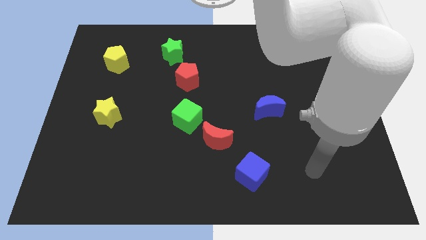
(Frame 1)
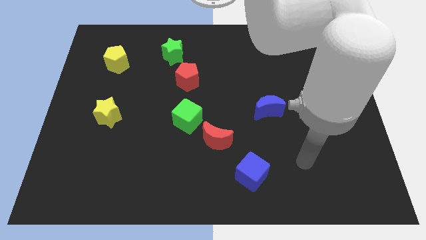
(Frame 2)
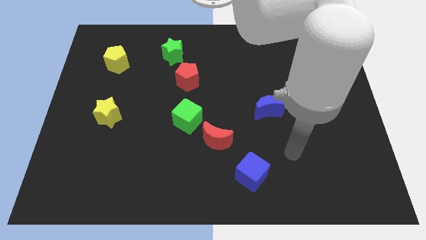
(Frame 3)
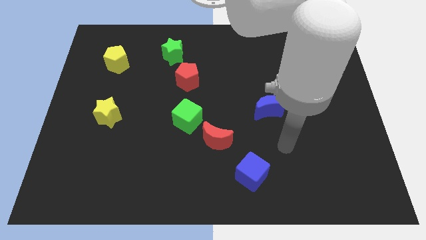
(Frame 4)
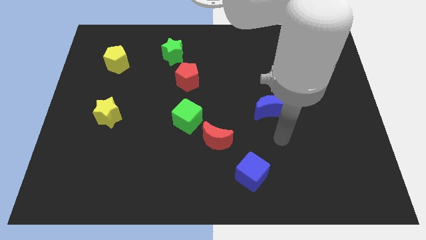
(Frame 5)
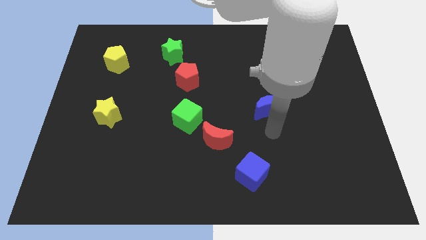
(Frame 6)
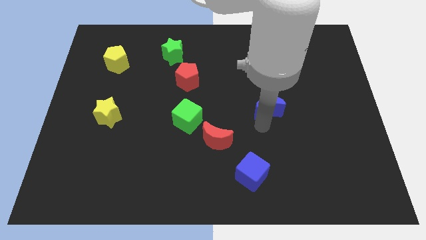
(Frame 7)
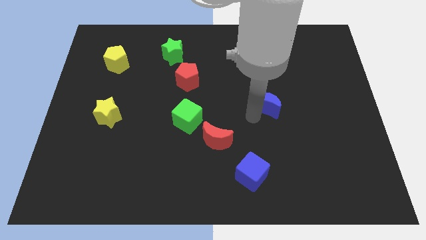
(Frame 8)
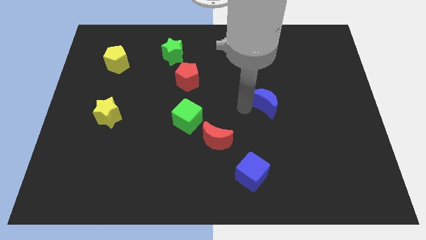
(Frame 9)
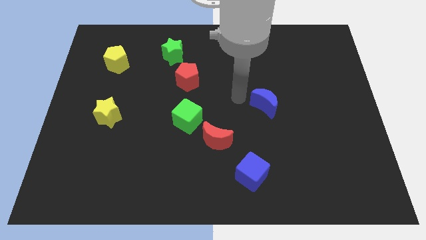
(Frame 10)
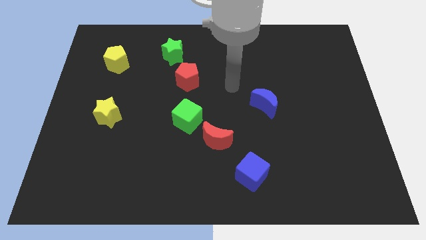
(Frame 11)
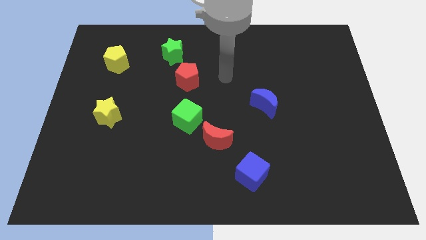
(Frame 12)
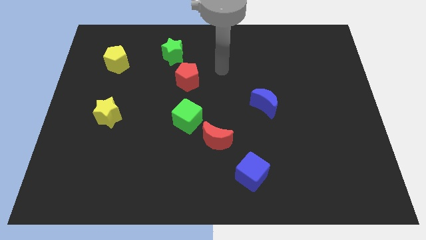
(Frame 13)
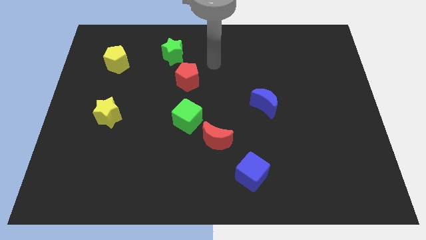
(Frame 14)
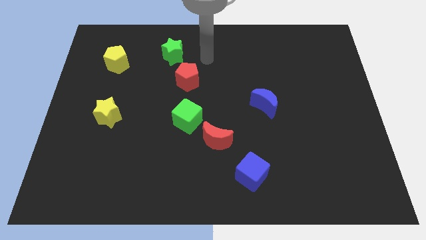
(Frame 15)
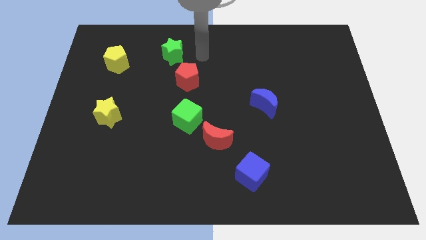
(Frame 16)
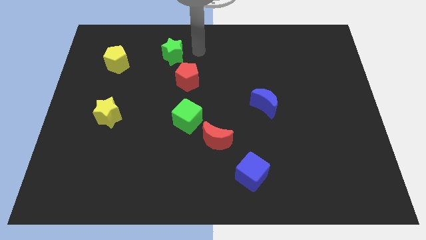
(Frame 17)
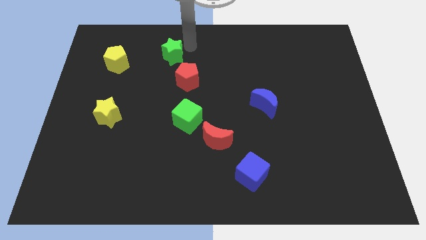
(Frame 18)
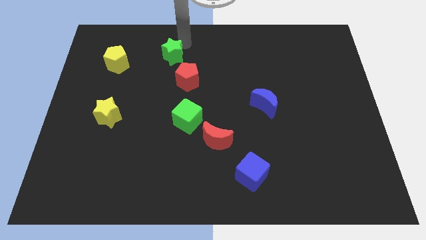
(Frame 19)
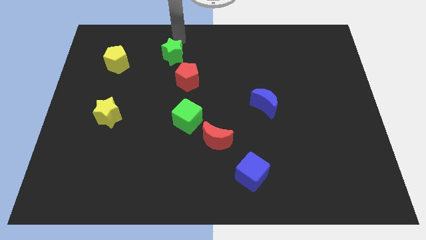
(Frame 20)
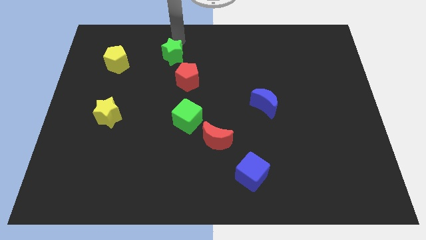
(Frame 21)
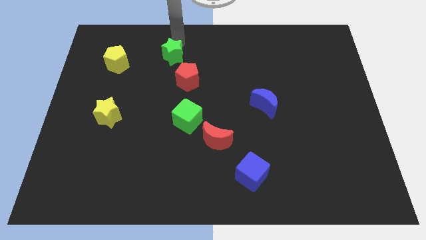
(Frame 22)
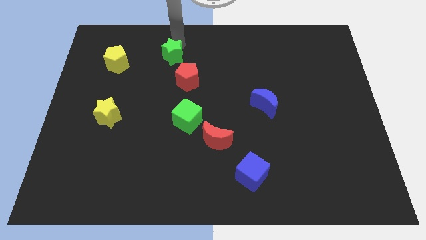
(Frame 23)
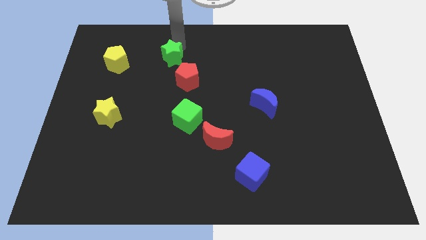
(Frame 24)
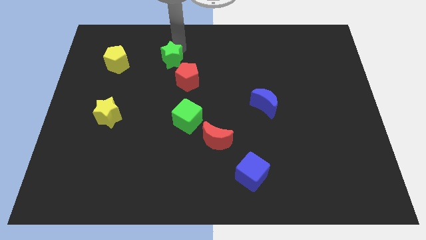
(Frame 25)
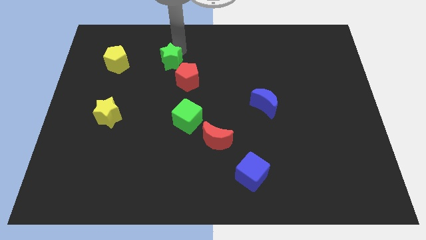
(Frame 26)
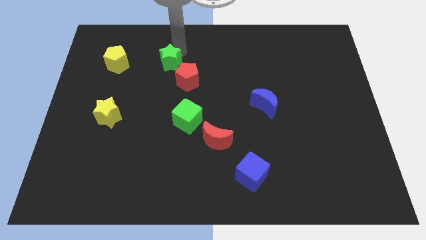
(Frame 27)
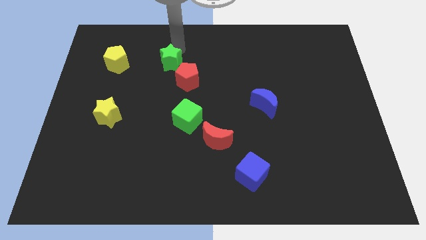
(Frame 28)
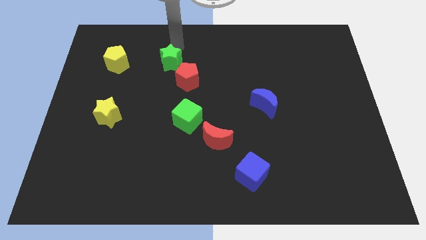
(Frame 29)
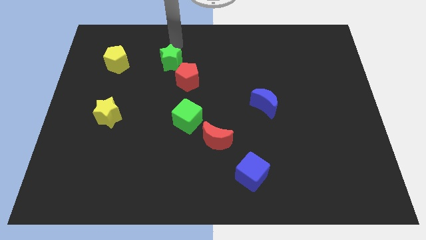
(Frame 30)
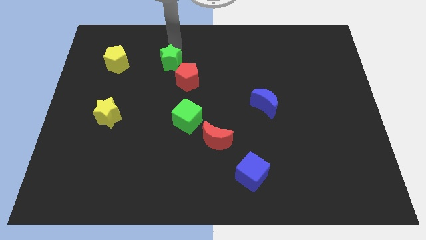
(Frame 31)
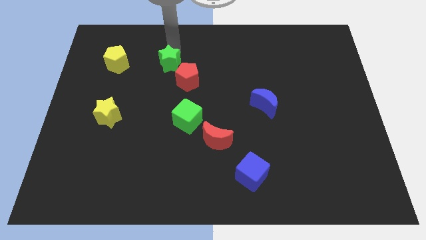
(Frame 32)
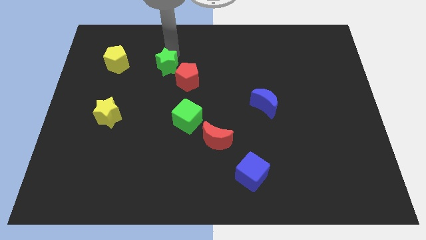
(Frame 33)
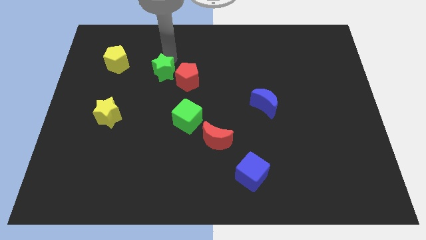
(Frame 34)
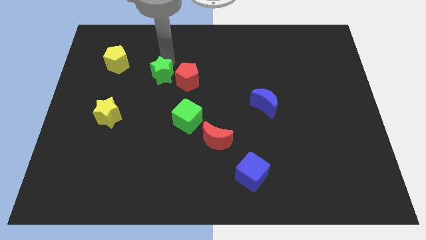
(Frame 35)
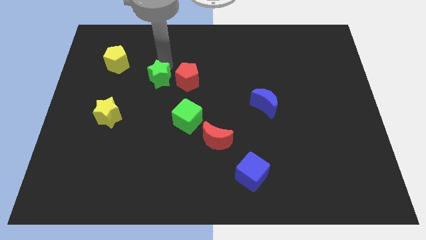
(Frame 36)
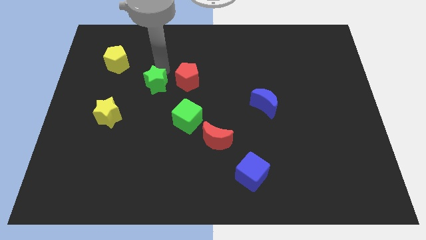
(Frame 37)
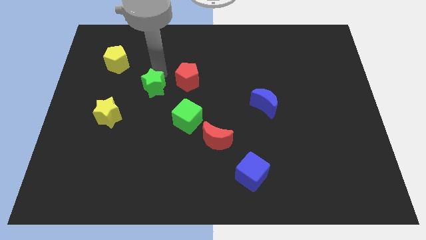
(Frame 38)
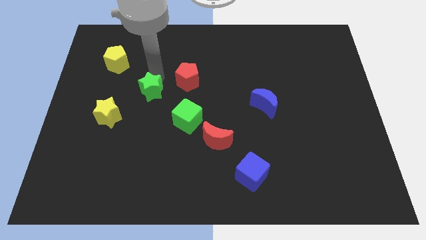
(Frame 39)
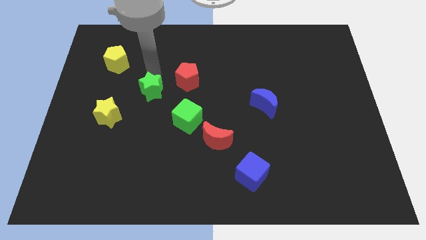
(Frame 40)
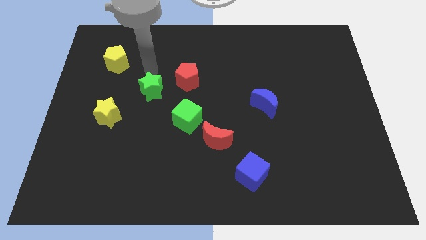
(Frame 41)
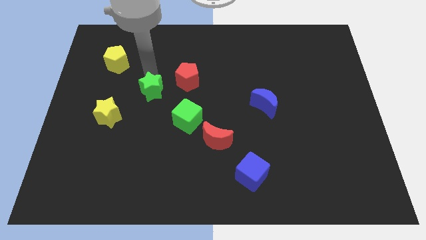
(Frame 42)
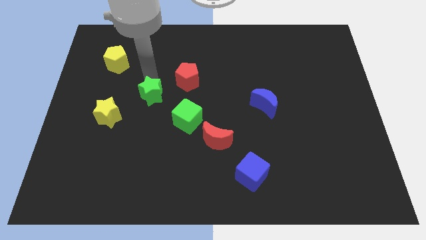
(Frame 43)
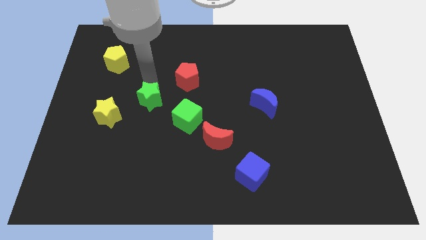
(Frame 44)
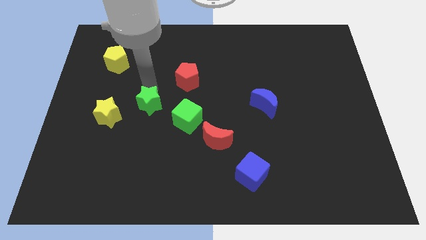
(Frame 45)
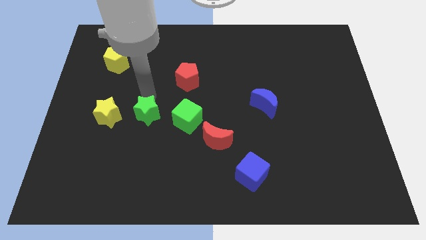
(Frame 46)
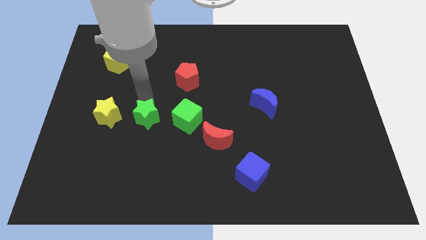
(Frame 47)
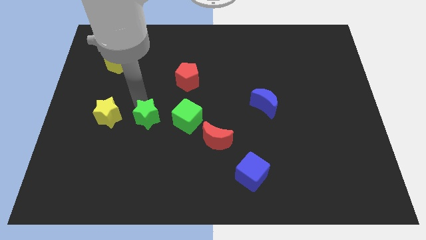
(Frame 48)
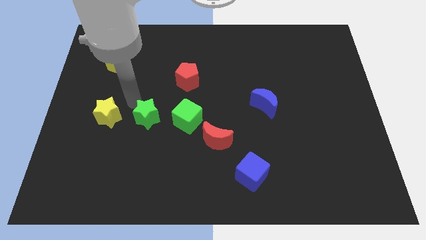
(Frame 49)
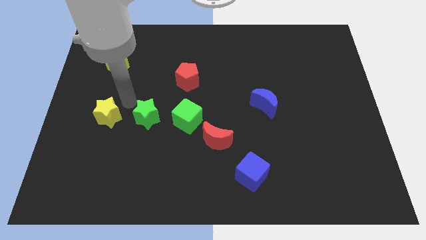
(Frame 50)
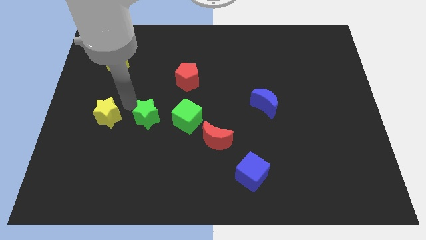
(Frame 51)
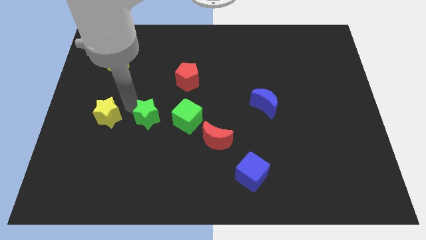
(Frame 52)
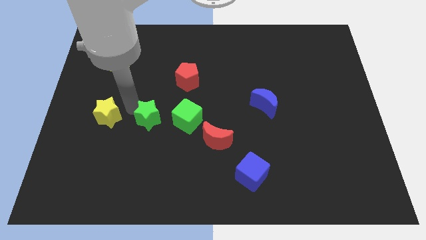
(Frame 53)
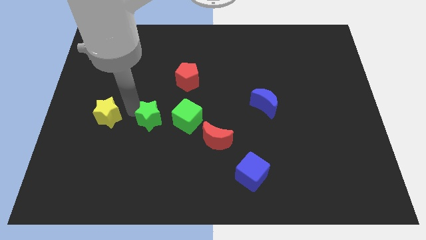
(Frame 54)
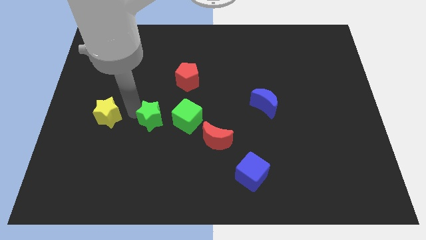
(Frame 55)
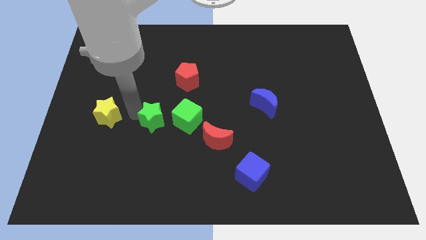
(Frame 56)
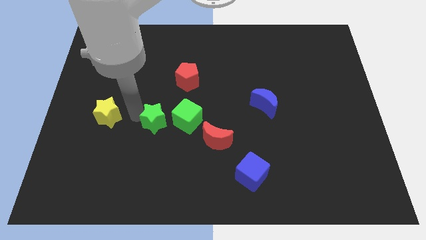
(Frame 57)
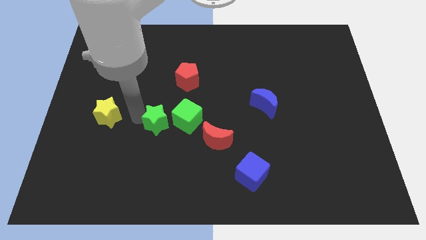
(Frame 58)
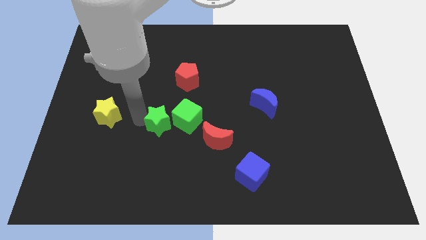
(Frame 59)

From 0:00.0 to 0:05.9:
move the green star to the left of the red moon

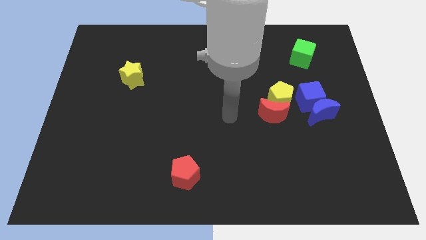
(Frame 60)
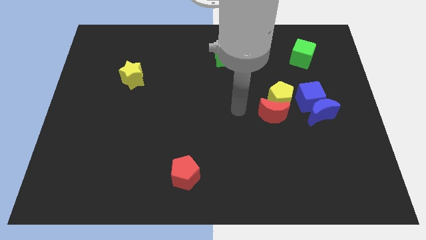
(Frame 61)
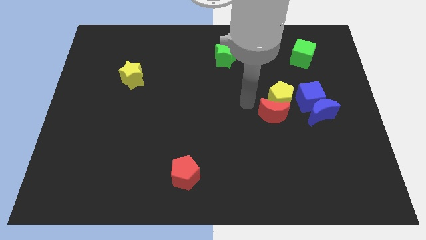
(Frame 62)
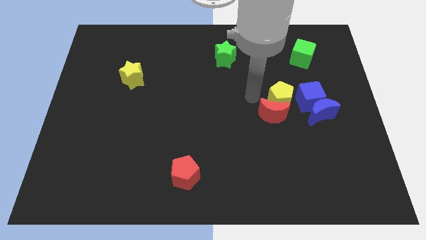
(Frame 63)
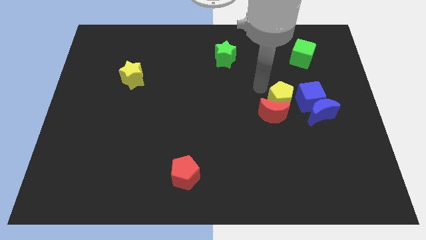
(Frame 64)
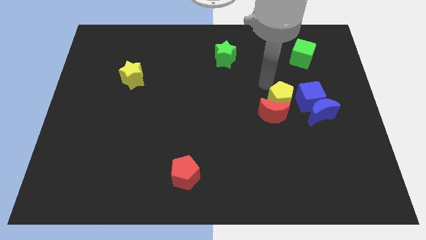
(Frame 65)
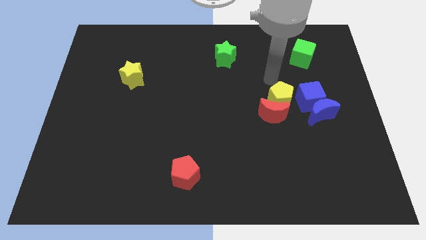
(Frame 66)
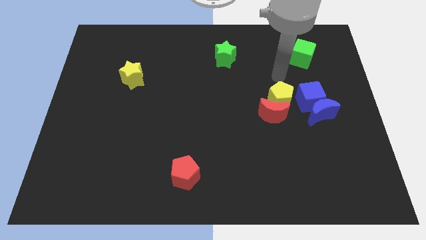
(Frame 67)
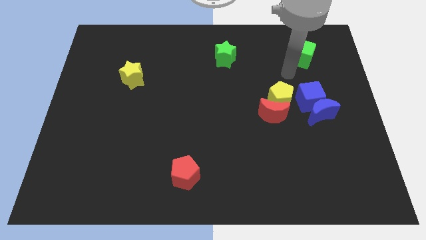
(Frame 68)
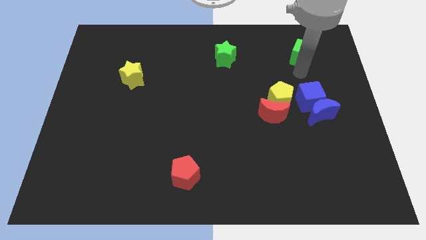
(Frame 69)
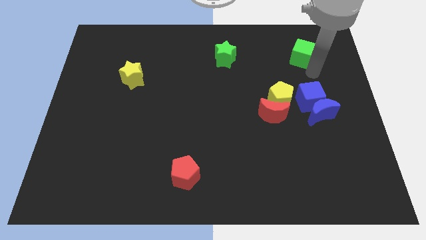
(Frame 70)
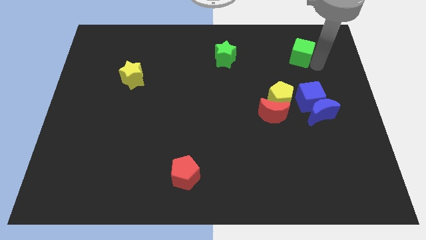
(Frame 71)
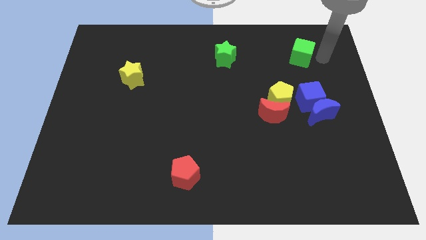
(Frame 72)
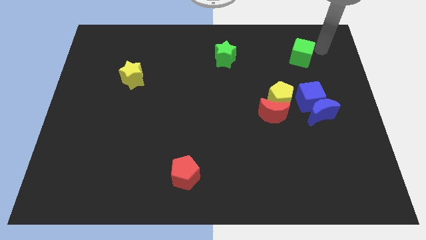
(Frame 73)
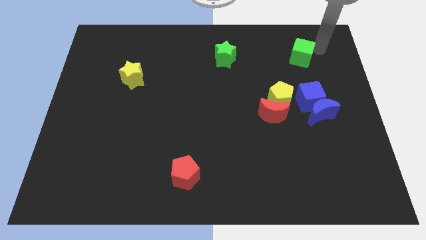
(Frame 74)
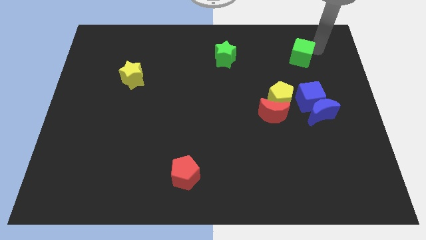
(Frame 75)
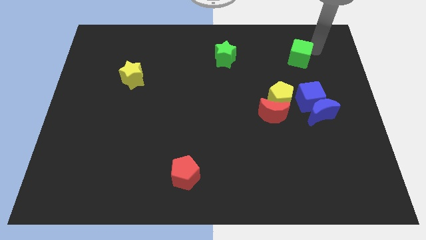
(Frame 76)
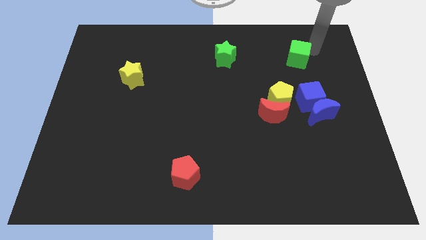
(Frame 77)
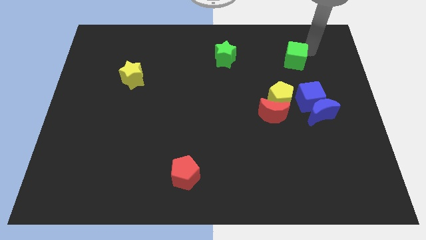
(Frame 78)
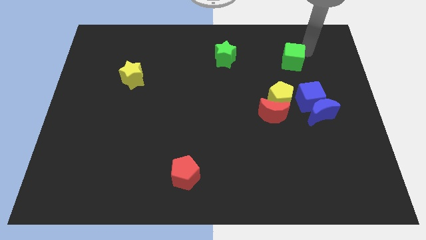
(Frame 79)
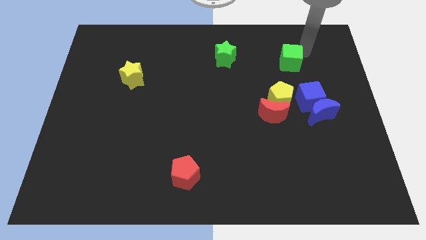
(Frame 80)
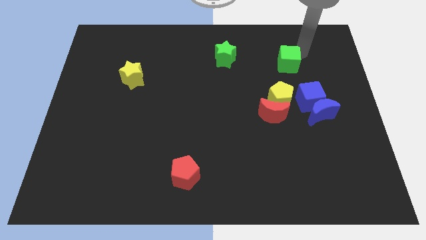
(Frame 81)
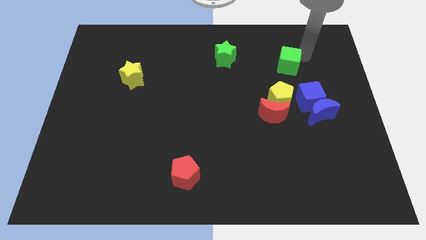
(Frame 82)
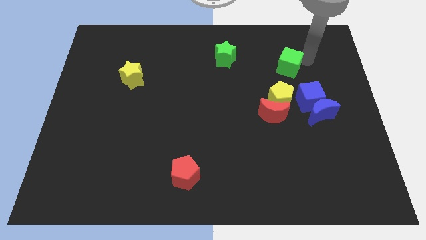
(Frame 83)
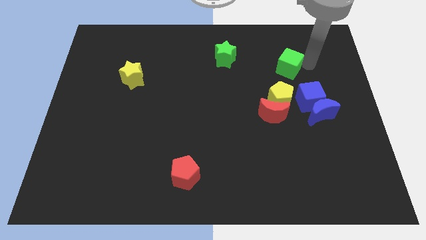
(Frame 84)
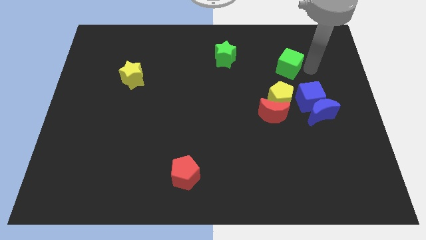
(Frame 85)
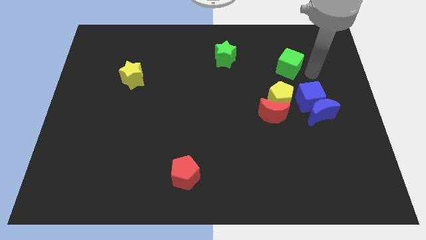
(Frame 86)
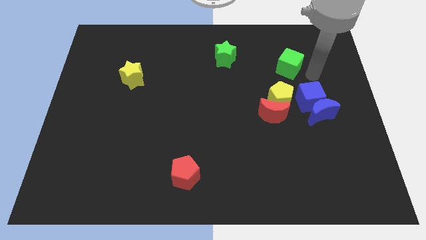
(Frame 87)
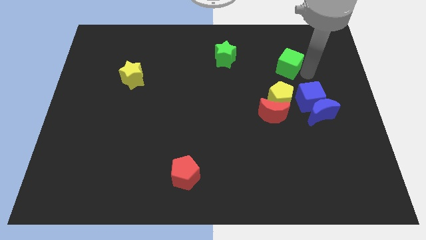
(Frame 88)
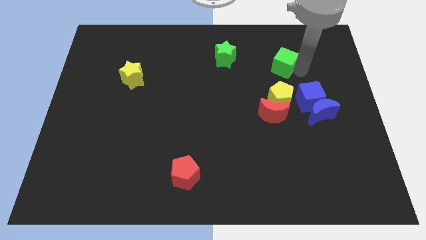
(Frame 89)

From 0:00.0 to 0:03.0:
push the green cube just right of the green star
